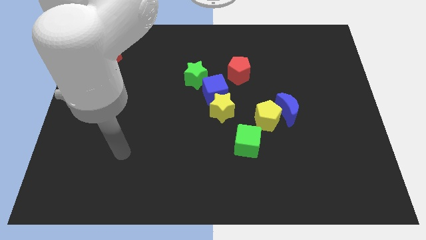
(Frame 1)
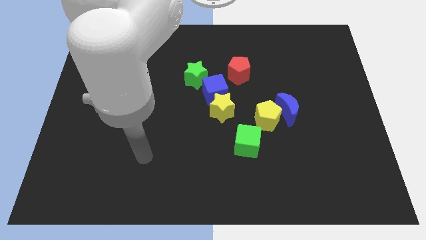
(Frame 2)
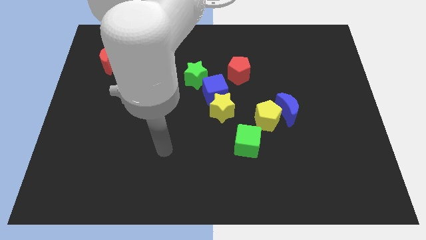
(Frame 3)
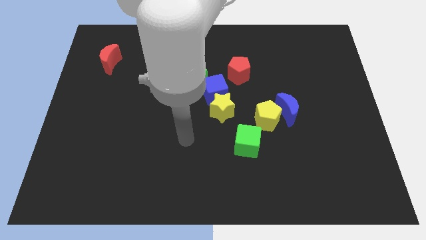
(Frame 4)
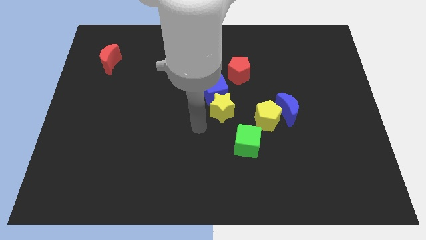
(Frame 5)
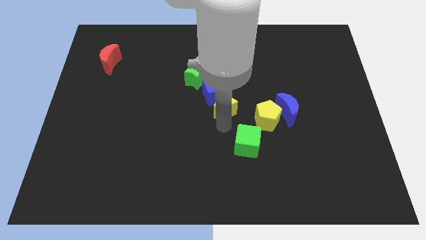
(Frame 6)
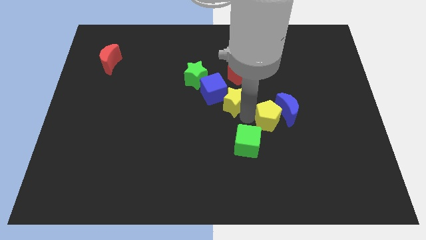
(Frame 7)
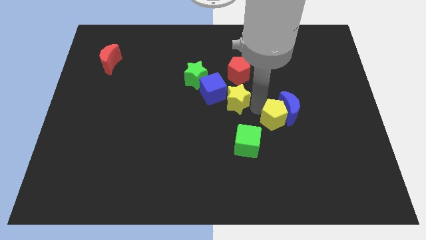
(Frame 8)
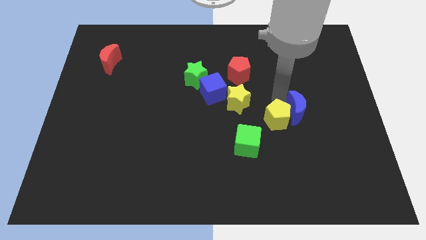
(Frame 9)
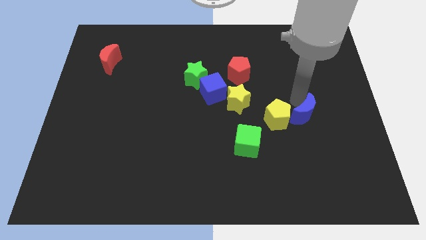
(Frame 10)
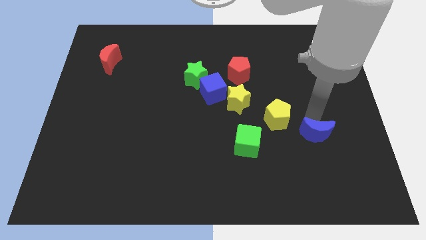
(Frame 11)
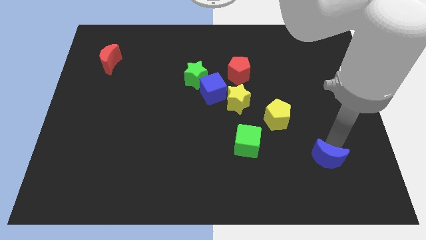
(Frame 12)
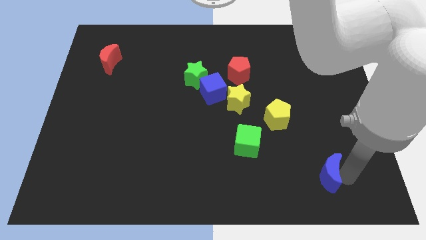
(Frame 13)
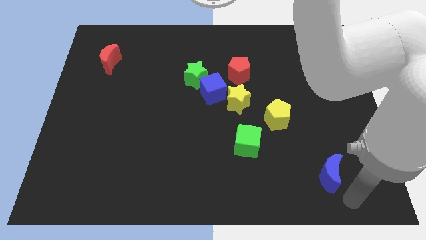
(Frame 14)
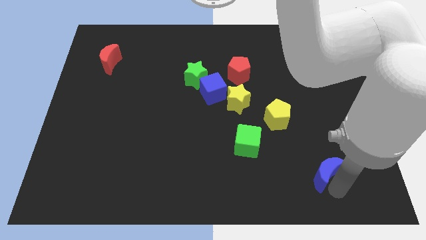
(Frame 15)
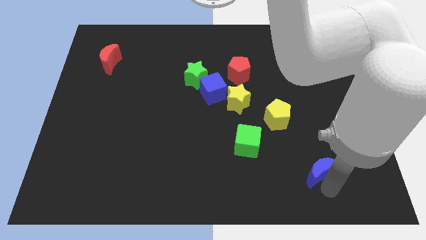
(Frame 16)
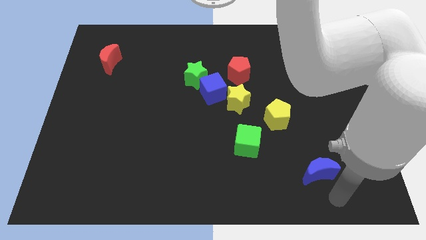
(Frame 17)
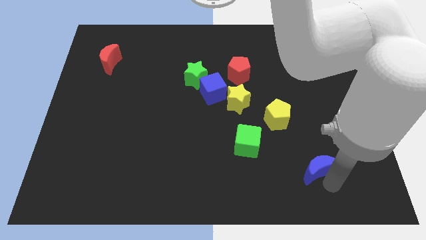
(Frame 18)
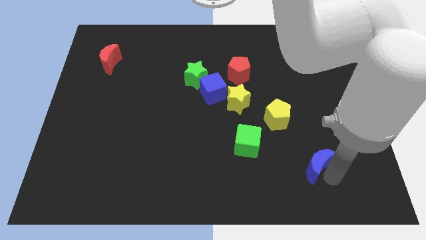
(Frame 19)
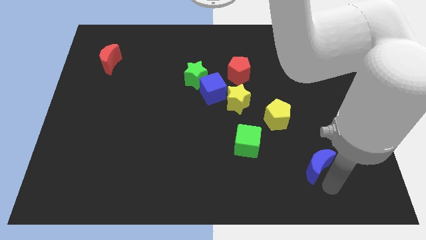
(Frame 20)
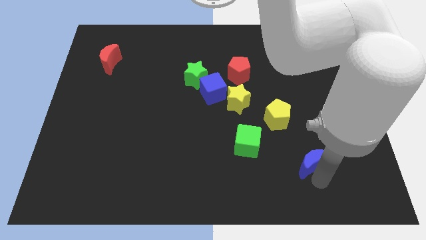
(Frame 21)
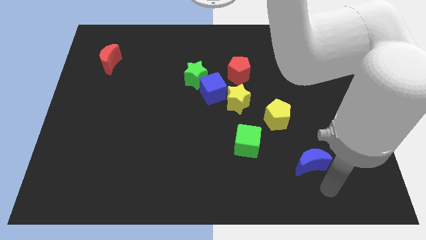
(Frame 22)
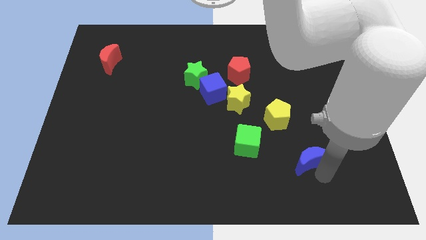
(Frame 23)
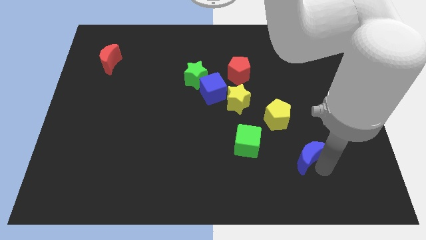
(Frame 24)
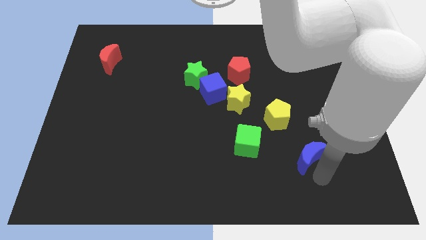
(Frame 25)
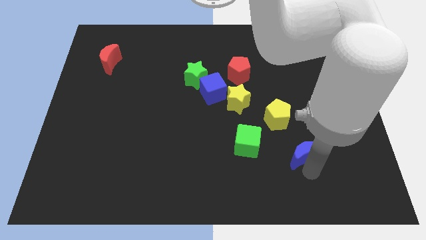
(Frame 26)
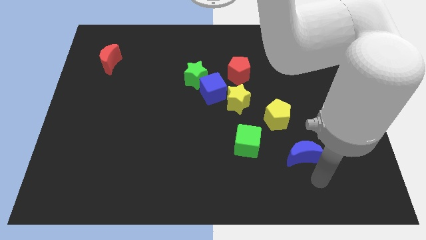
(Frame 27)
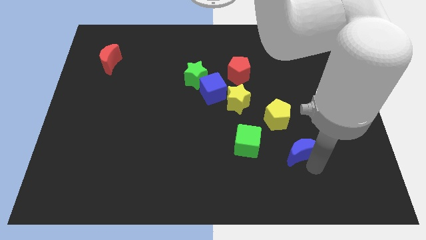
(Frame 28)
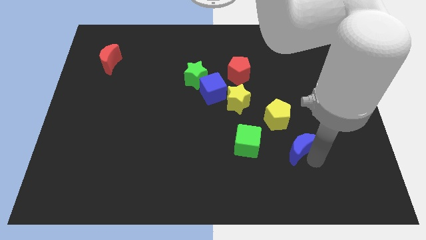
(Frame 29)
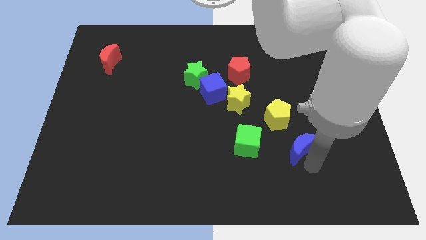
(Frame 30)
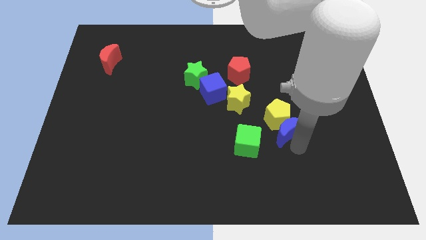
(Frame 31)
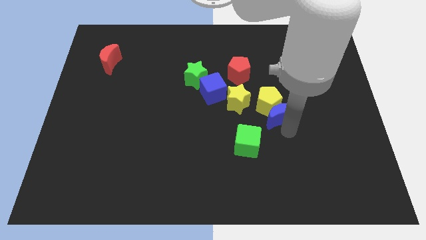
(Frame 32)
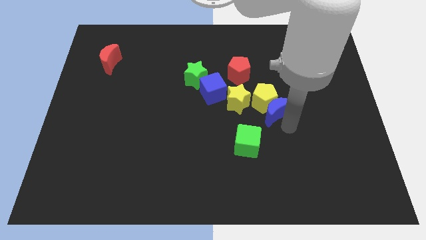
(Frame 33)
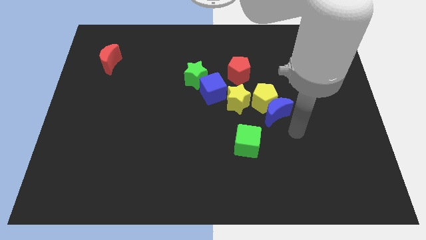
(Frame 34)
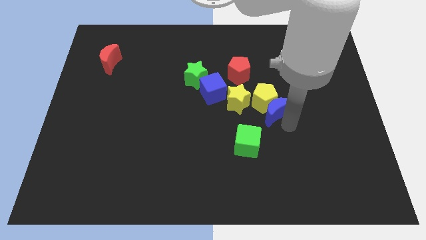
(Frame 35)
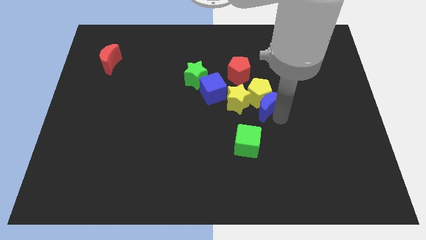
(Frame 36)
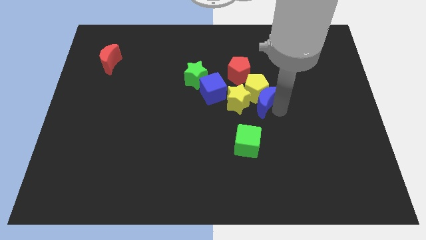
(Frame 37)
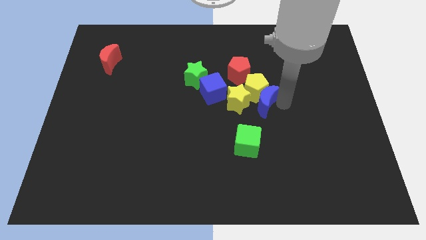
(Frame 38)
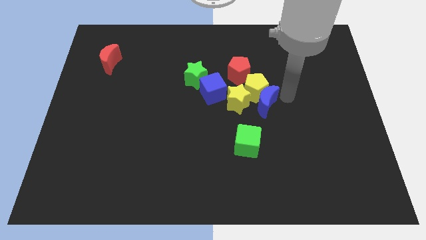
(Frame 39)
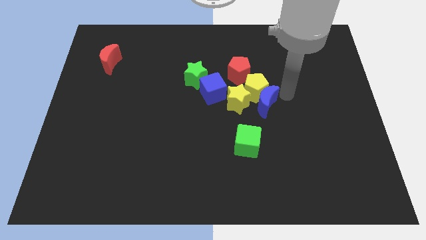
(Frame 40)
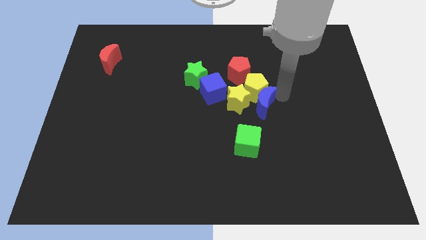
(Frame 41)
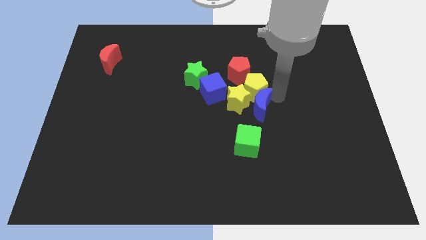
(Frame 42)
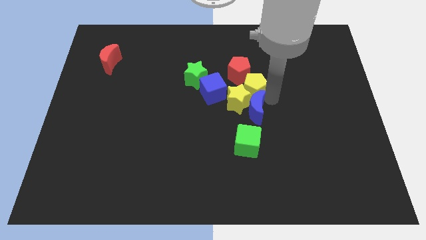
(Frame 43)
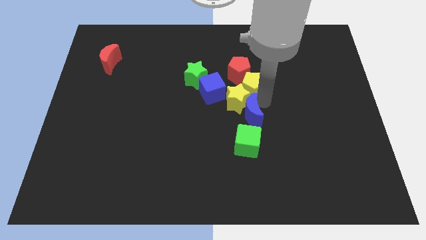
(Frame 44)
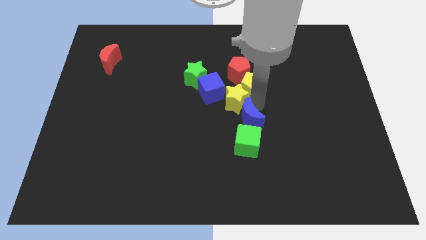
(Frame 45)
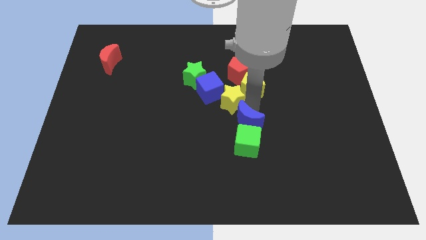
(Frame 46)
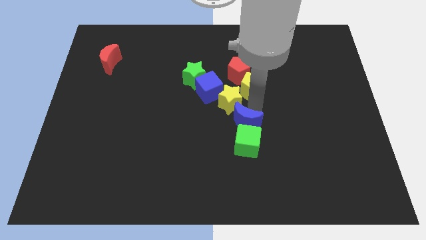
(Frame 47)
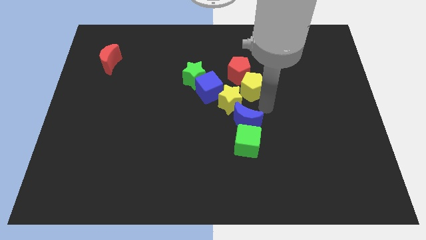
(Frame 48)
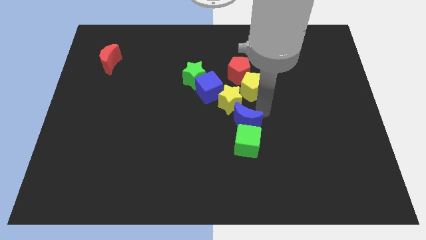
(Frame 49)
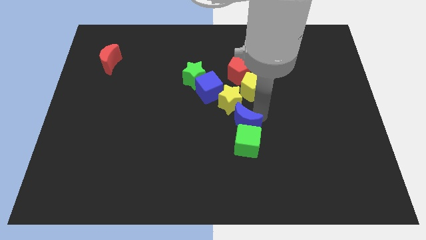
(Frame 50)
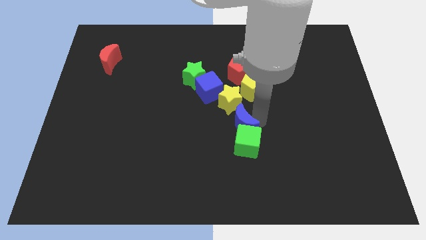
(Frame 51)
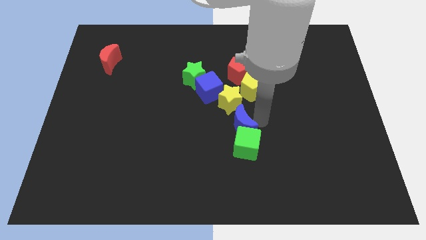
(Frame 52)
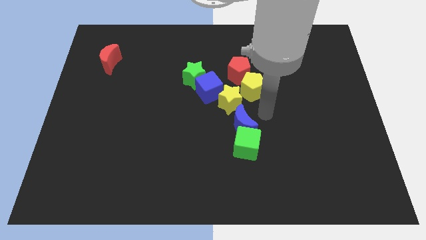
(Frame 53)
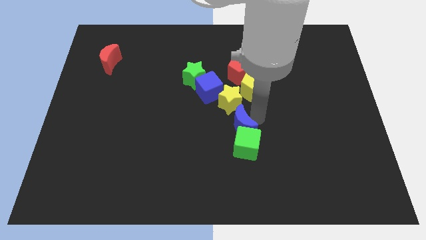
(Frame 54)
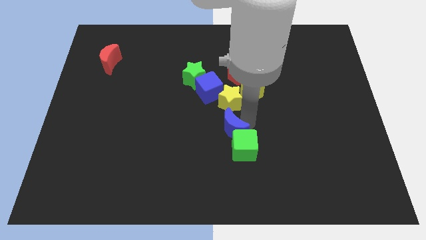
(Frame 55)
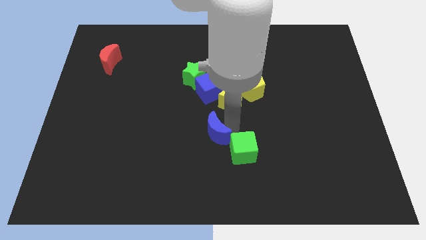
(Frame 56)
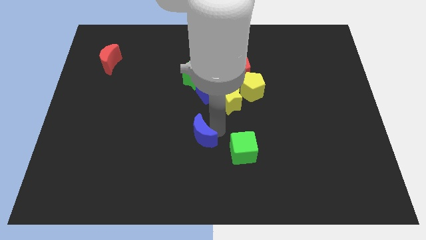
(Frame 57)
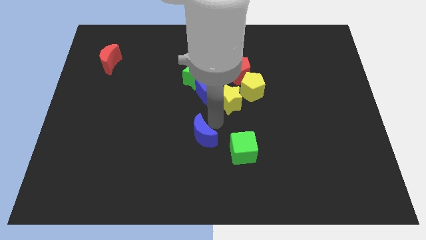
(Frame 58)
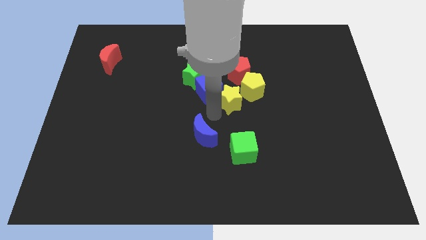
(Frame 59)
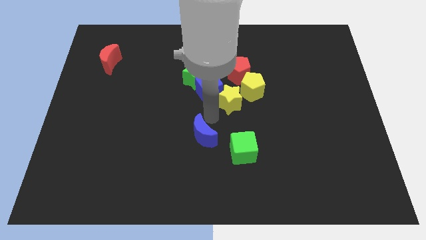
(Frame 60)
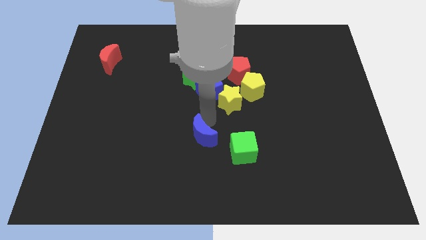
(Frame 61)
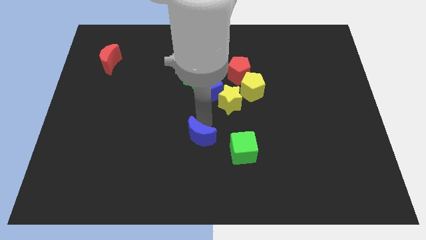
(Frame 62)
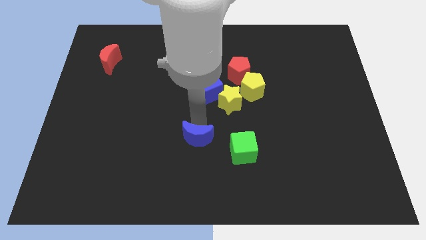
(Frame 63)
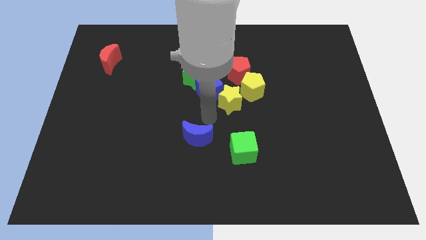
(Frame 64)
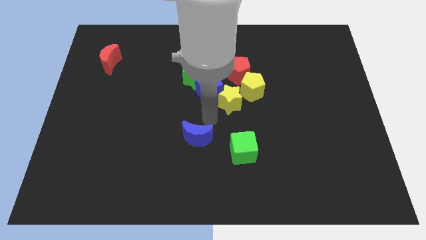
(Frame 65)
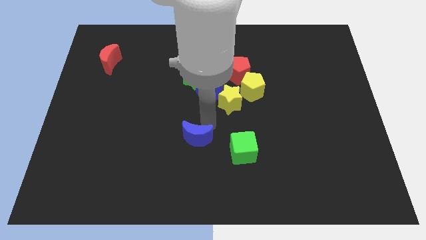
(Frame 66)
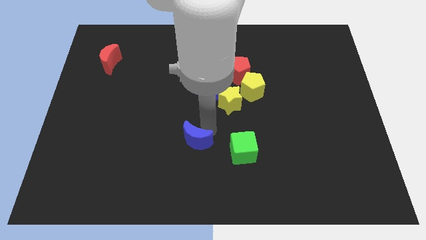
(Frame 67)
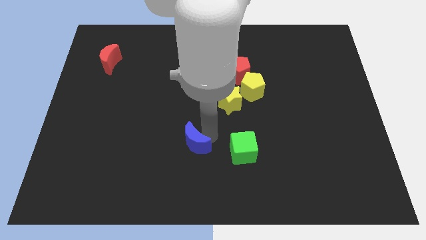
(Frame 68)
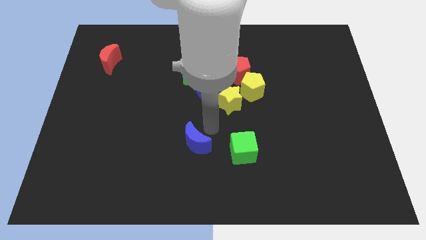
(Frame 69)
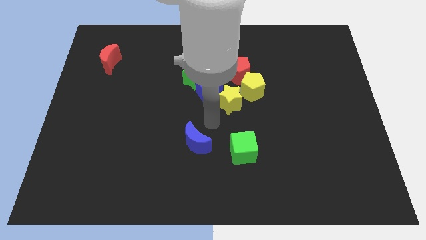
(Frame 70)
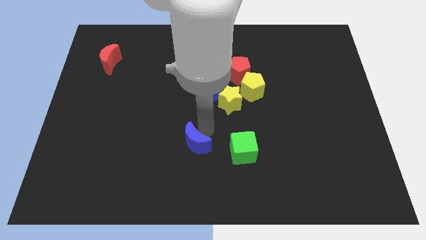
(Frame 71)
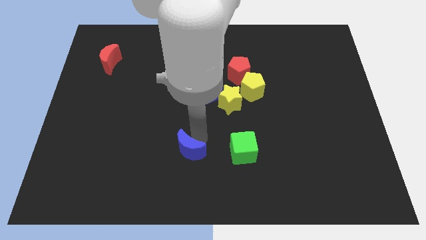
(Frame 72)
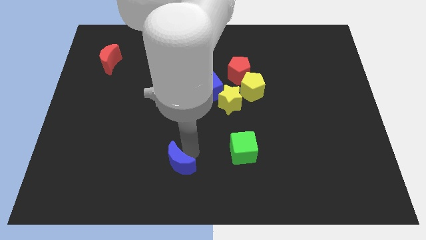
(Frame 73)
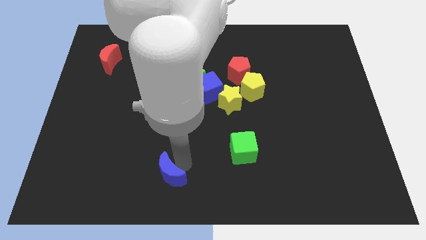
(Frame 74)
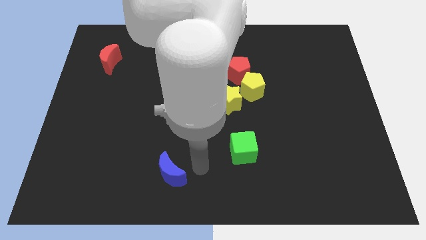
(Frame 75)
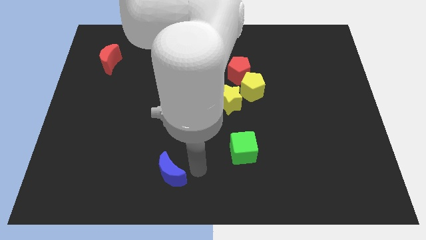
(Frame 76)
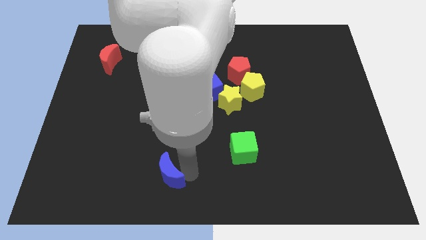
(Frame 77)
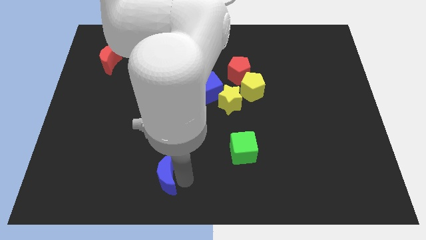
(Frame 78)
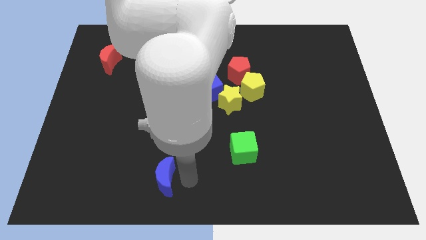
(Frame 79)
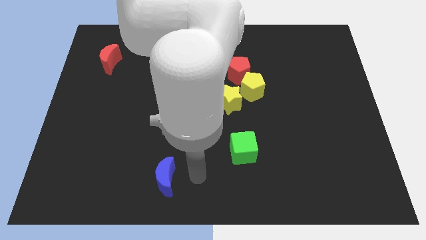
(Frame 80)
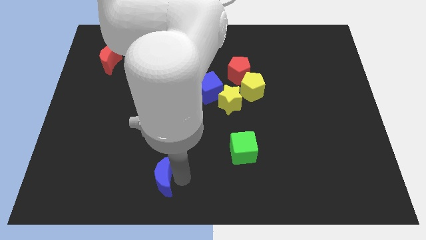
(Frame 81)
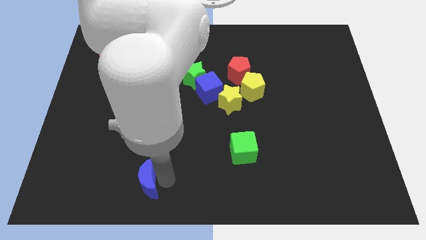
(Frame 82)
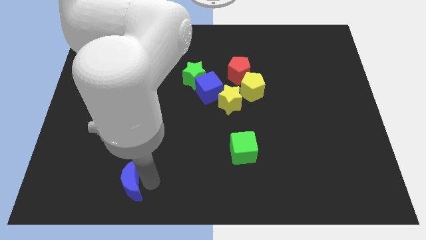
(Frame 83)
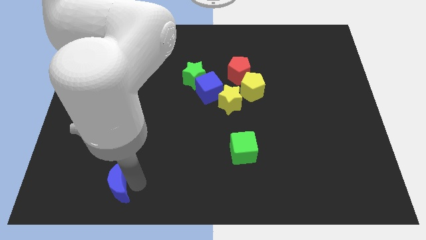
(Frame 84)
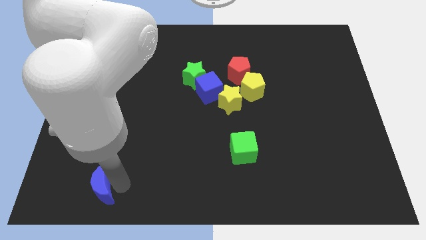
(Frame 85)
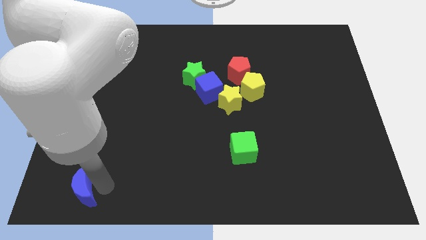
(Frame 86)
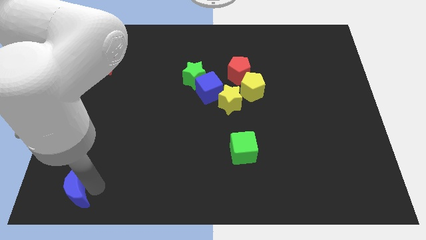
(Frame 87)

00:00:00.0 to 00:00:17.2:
put the blue moon to the bottom left
